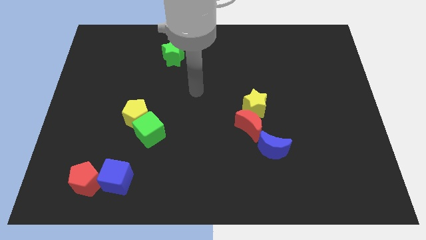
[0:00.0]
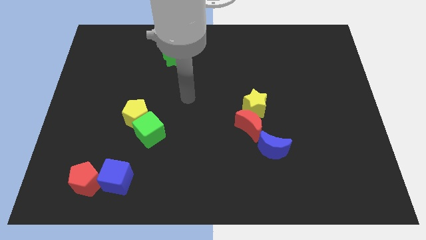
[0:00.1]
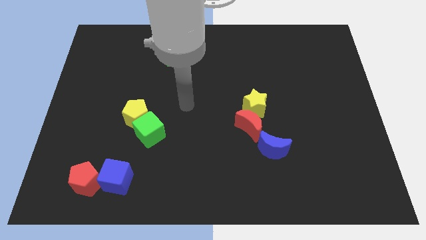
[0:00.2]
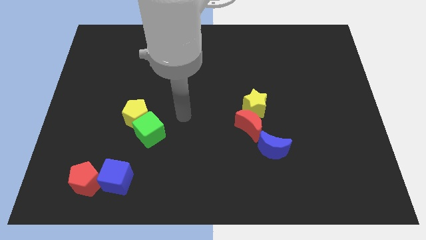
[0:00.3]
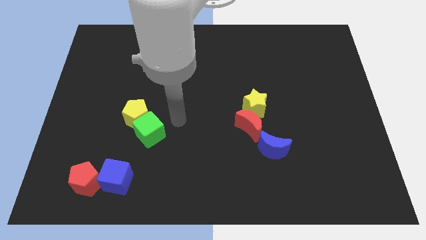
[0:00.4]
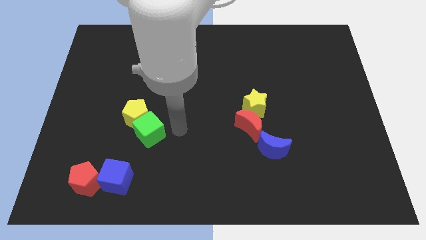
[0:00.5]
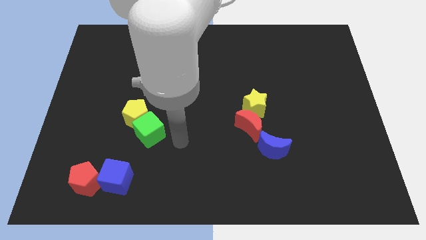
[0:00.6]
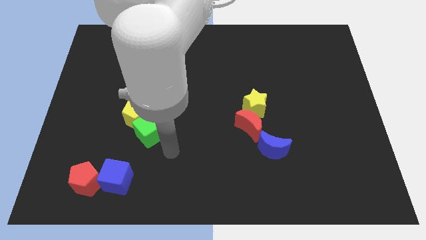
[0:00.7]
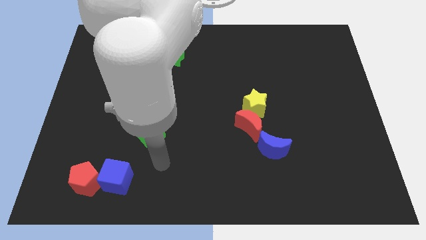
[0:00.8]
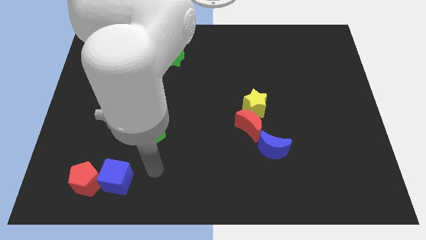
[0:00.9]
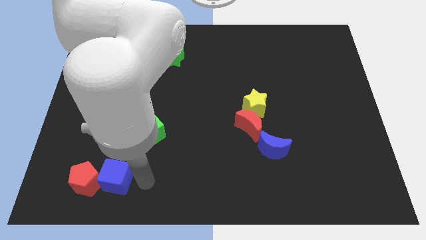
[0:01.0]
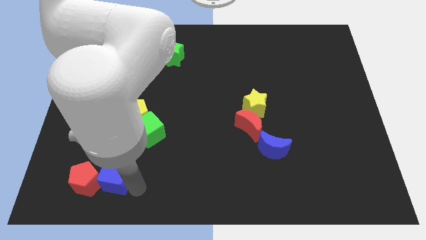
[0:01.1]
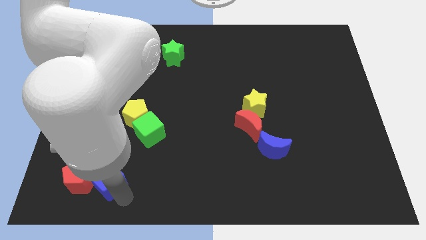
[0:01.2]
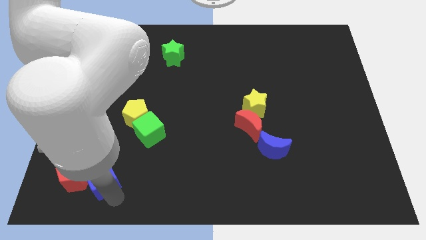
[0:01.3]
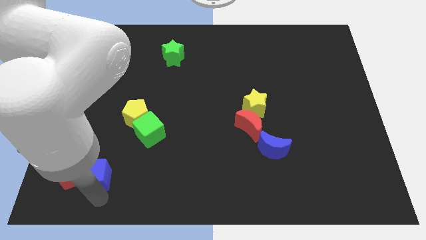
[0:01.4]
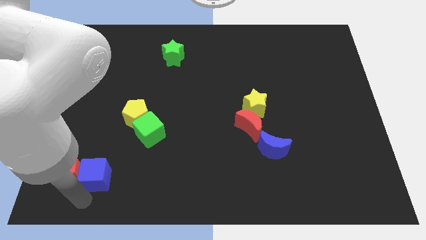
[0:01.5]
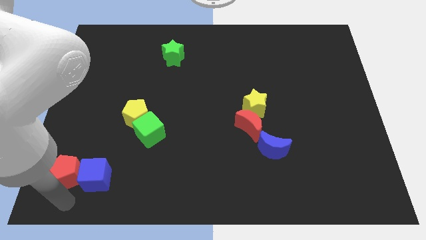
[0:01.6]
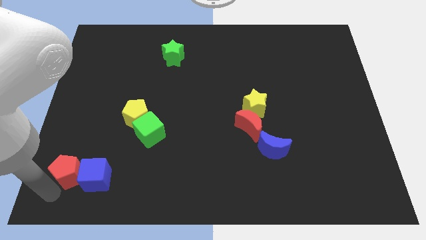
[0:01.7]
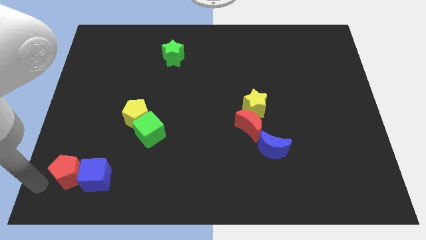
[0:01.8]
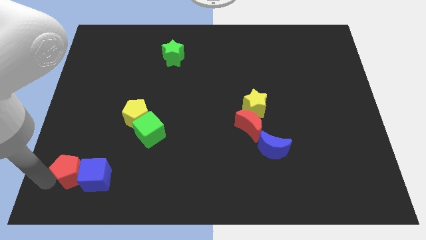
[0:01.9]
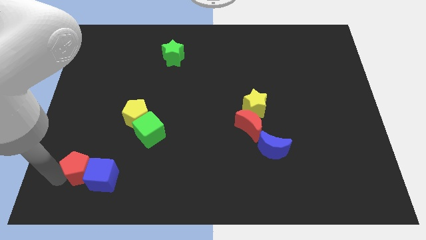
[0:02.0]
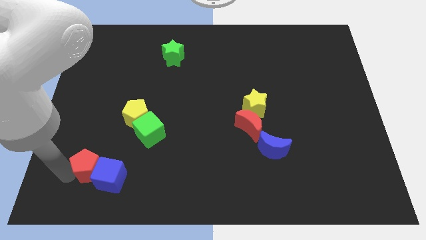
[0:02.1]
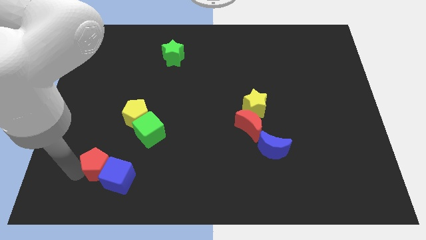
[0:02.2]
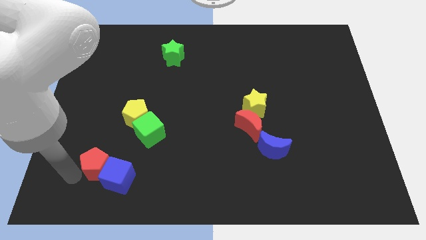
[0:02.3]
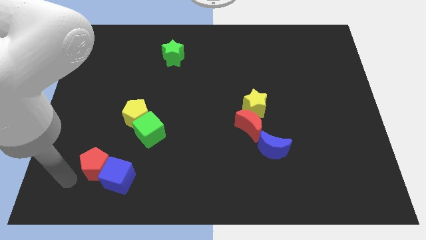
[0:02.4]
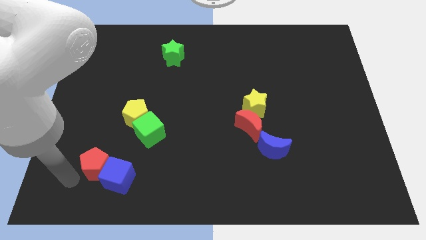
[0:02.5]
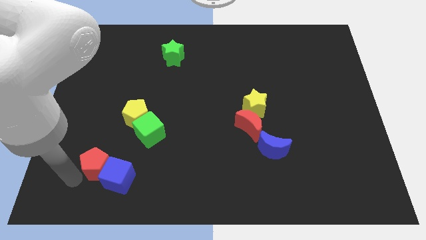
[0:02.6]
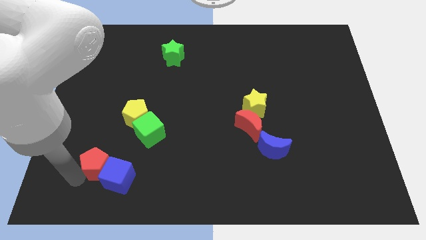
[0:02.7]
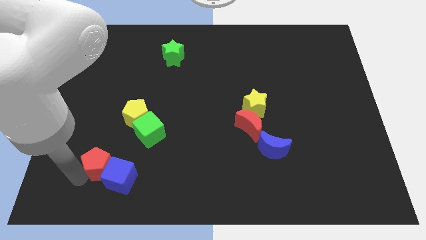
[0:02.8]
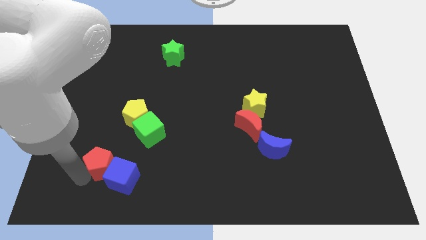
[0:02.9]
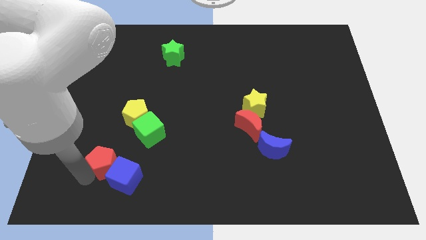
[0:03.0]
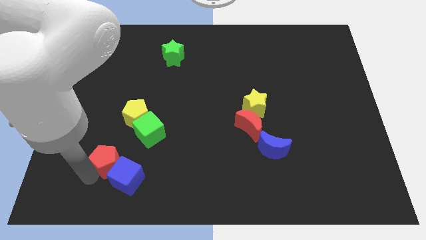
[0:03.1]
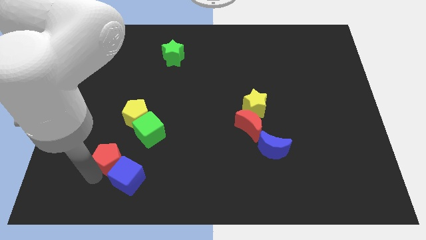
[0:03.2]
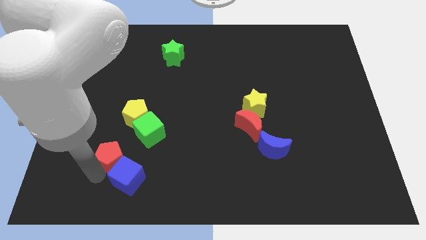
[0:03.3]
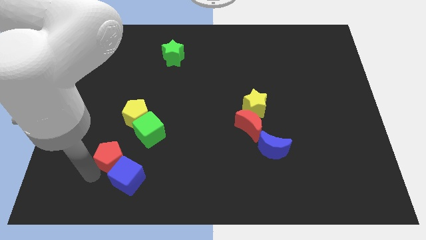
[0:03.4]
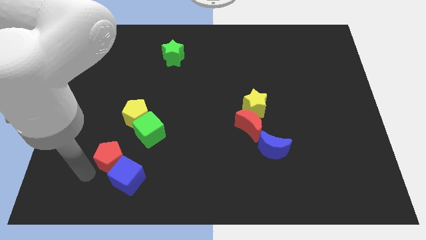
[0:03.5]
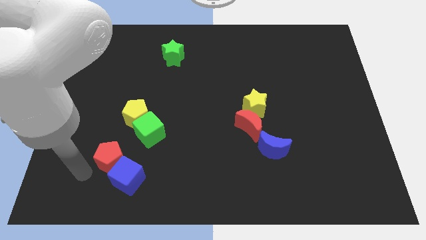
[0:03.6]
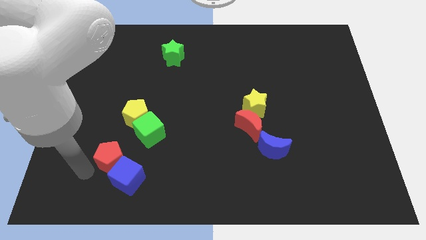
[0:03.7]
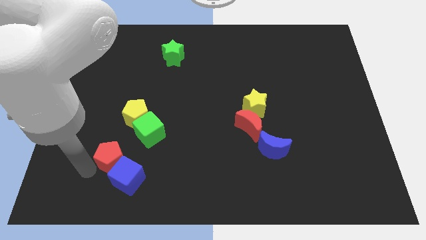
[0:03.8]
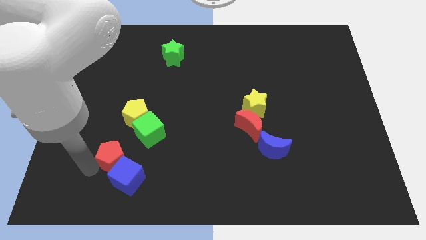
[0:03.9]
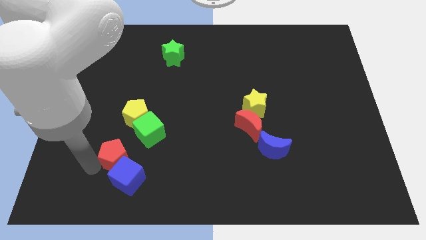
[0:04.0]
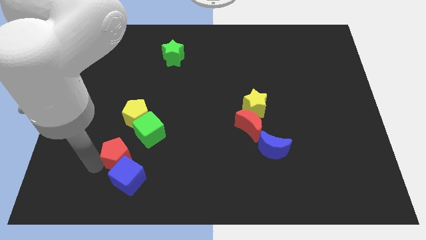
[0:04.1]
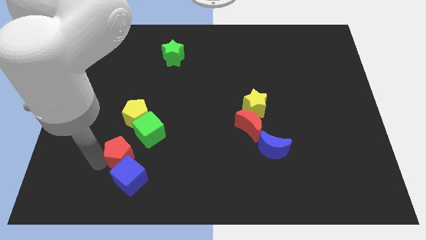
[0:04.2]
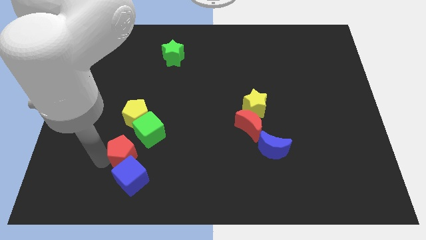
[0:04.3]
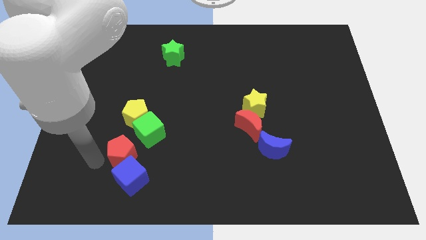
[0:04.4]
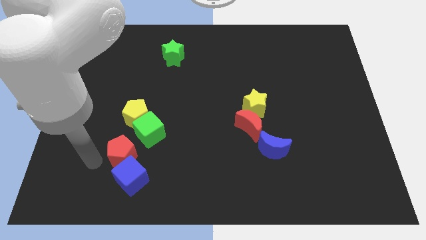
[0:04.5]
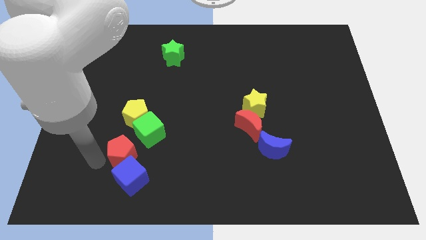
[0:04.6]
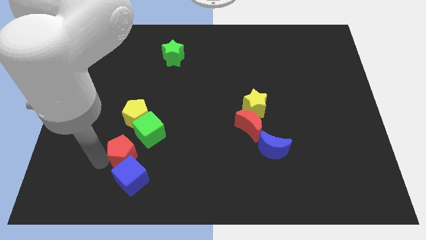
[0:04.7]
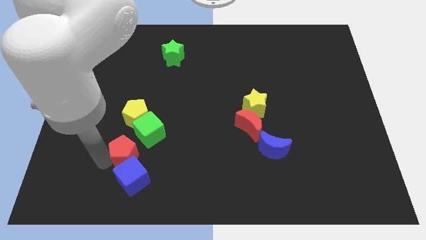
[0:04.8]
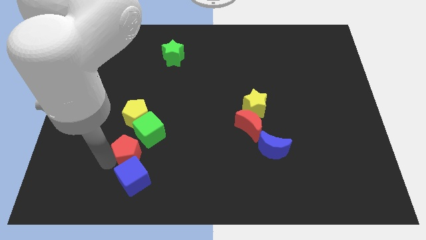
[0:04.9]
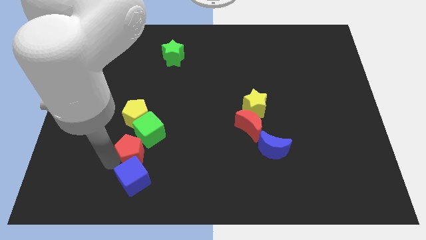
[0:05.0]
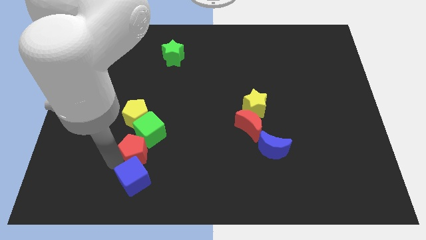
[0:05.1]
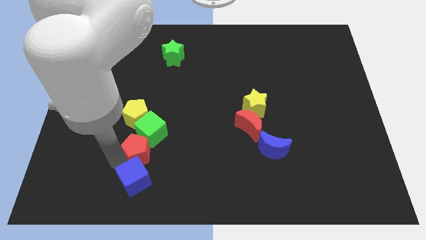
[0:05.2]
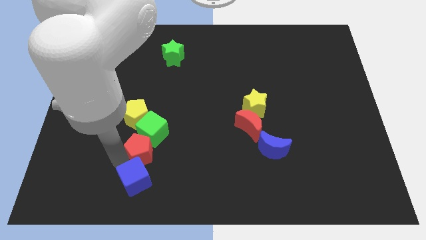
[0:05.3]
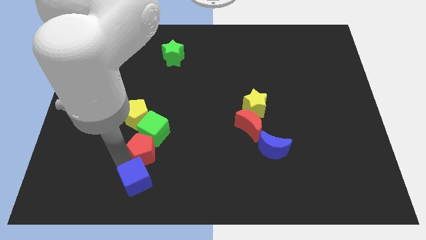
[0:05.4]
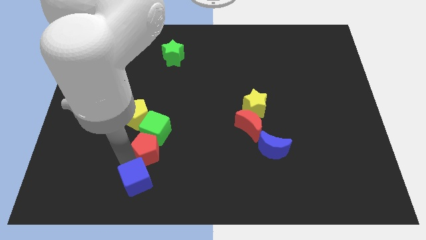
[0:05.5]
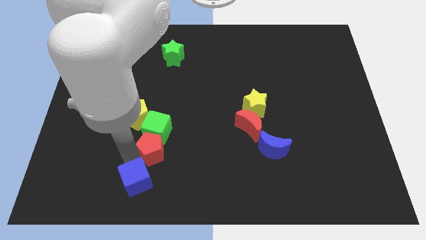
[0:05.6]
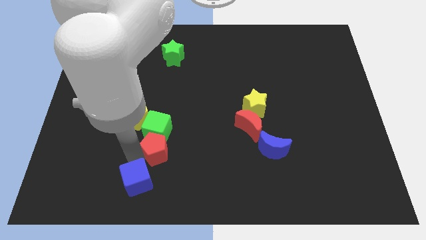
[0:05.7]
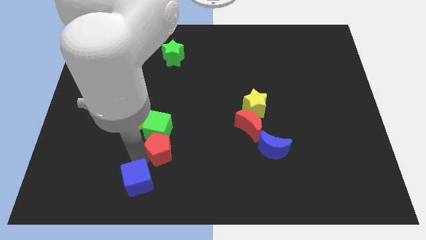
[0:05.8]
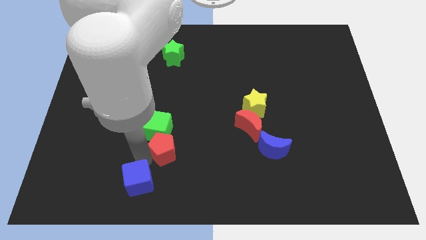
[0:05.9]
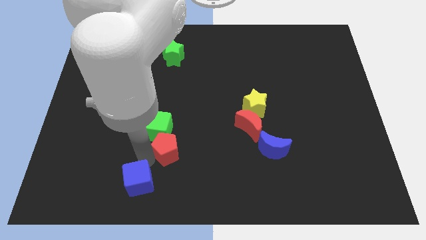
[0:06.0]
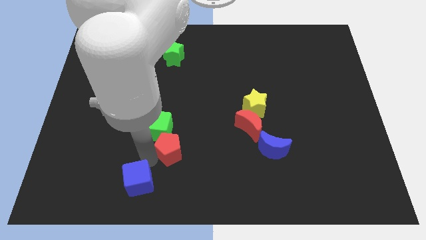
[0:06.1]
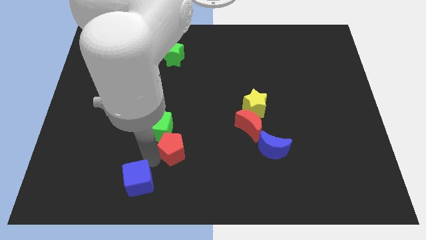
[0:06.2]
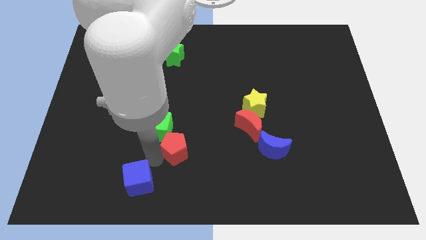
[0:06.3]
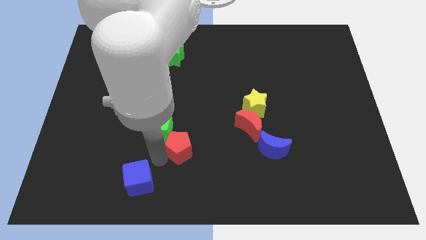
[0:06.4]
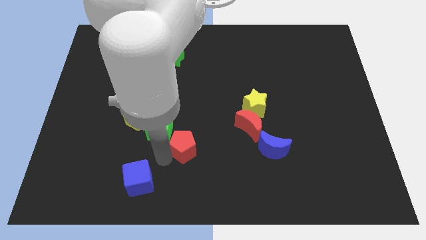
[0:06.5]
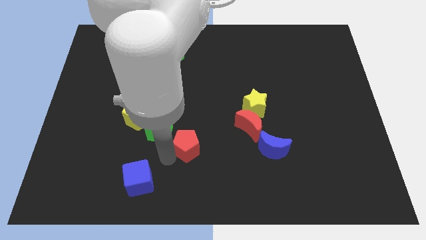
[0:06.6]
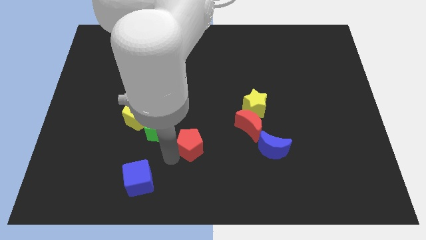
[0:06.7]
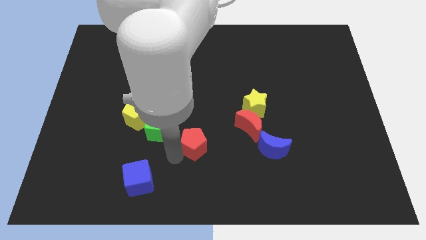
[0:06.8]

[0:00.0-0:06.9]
put the red pentagon to the left of the red moon

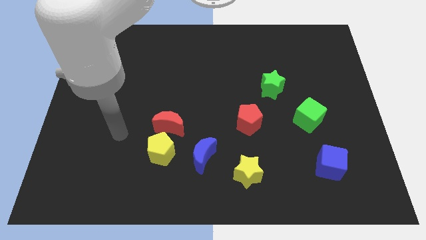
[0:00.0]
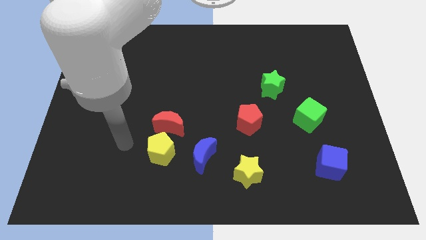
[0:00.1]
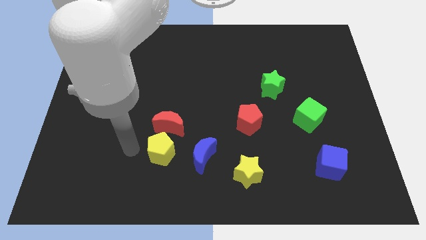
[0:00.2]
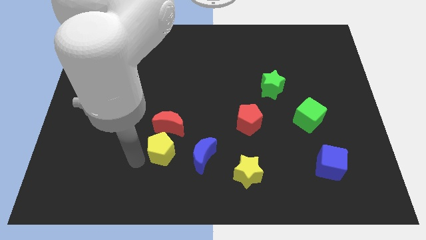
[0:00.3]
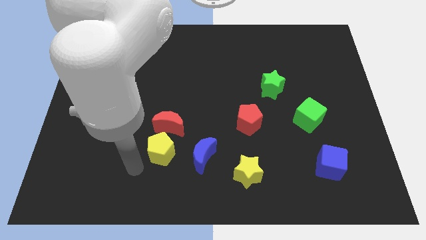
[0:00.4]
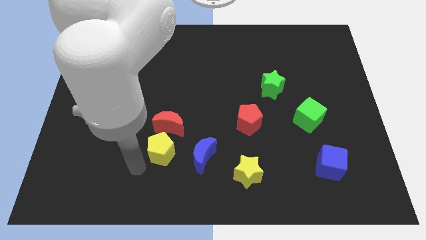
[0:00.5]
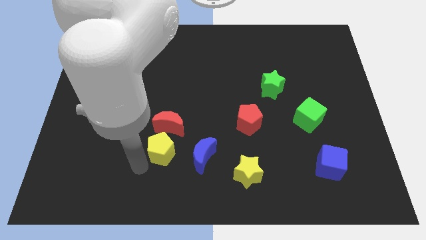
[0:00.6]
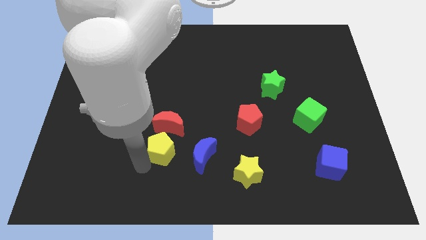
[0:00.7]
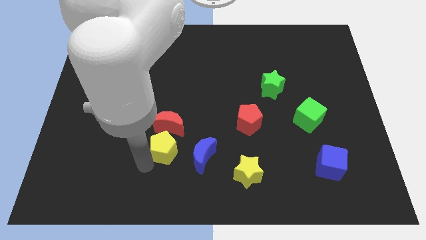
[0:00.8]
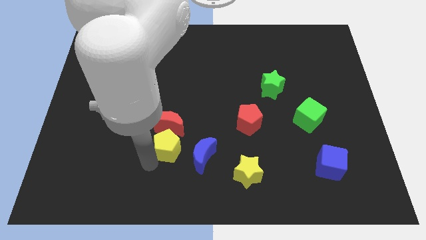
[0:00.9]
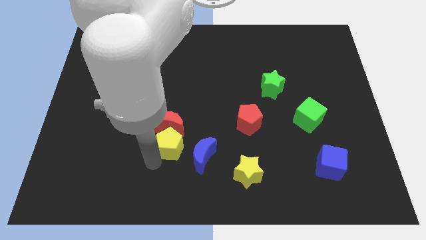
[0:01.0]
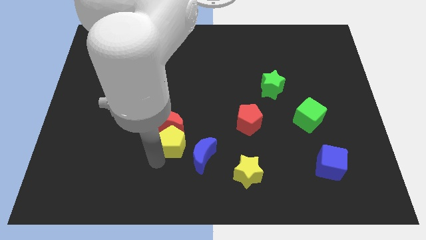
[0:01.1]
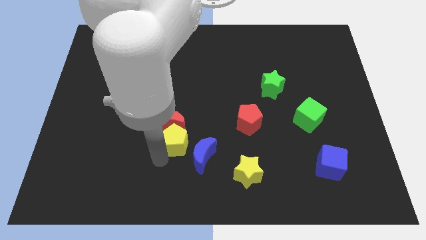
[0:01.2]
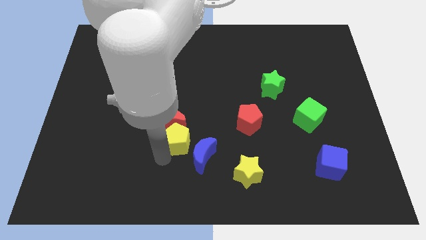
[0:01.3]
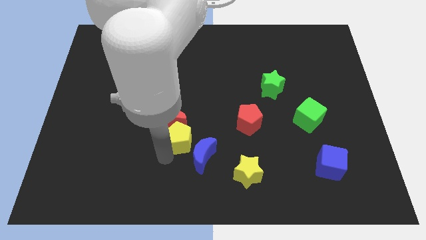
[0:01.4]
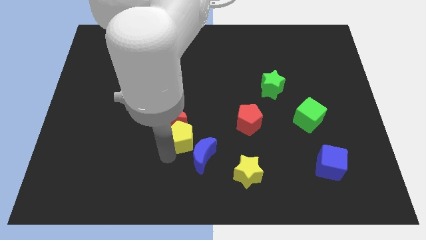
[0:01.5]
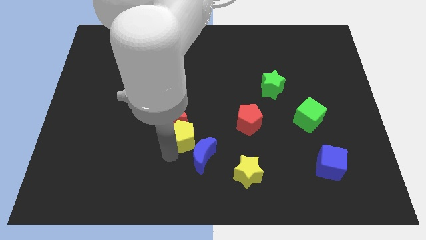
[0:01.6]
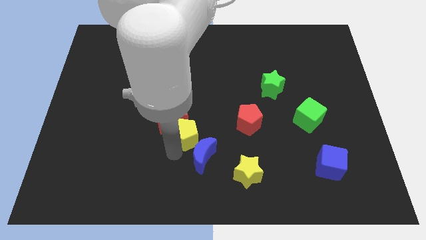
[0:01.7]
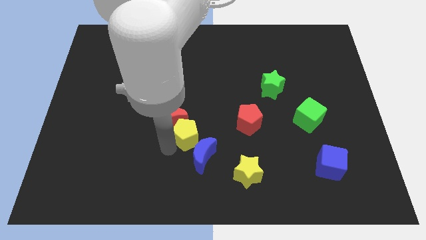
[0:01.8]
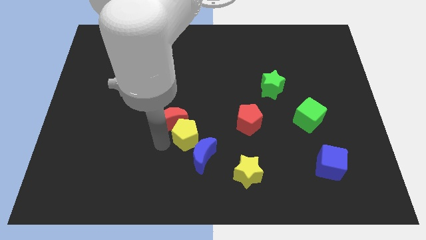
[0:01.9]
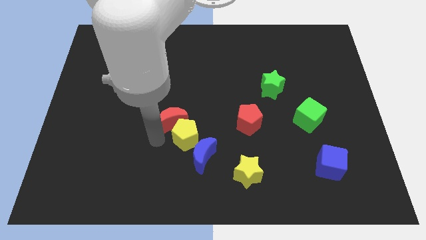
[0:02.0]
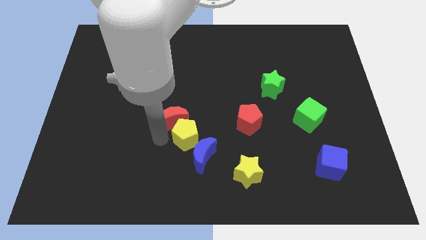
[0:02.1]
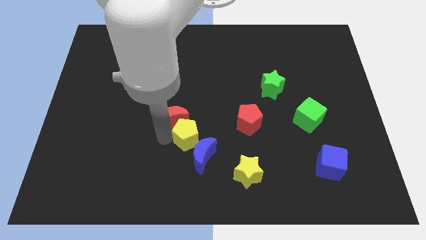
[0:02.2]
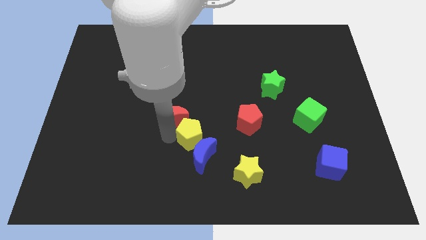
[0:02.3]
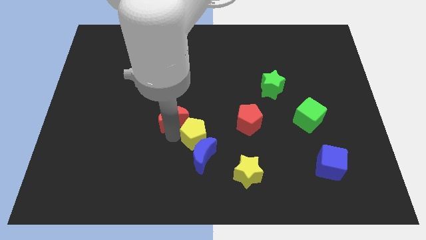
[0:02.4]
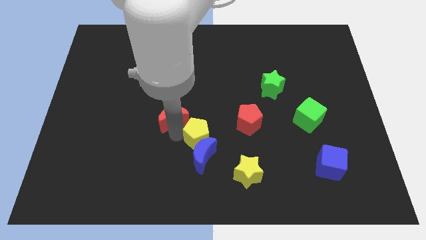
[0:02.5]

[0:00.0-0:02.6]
move the yellow pentagon to the top right of the blue moon
